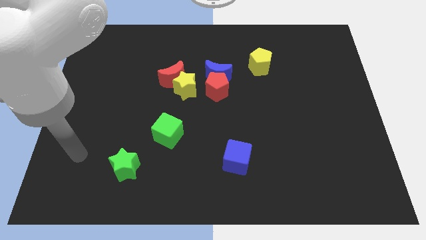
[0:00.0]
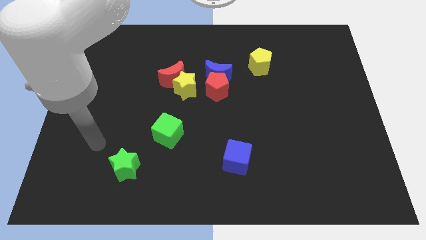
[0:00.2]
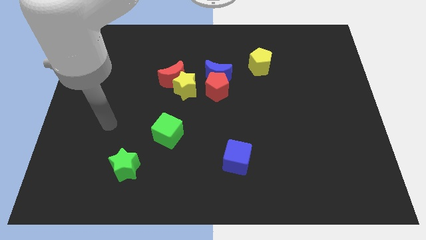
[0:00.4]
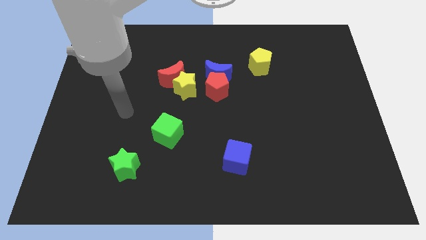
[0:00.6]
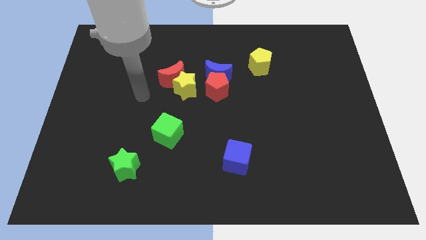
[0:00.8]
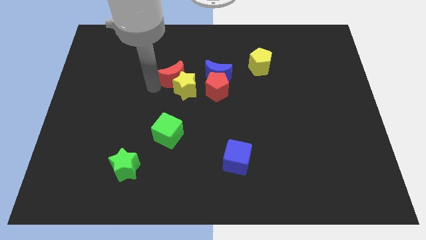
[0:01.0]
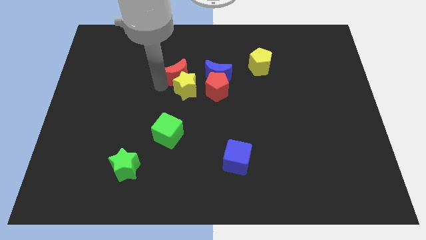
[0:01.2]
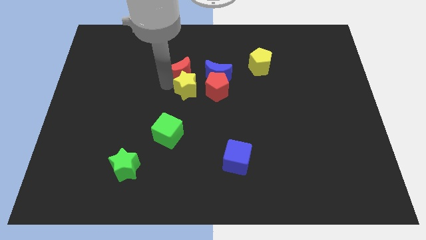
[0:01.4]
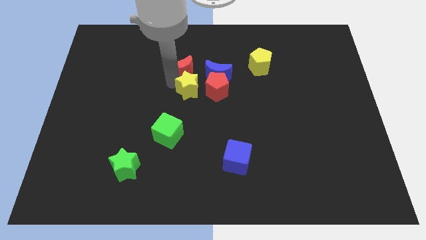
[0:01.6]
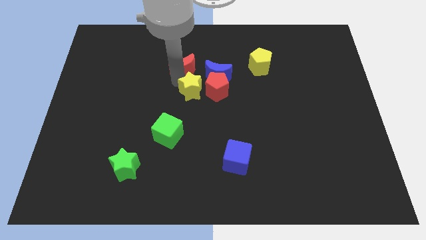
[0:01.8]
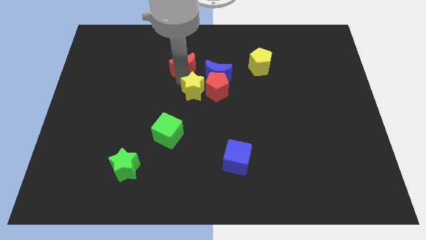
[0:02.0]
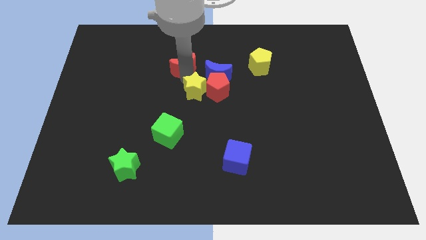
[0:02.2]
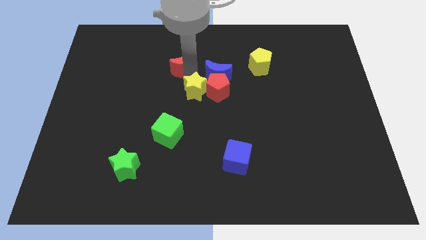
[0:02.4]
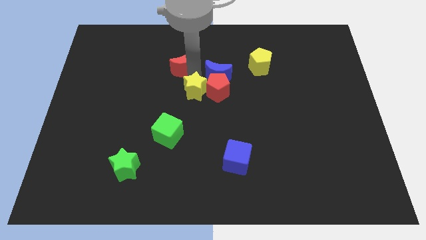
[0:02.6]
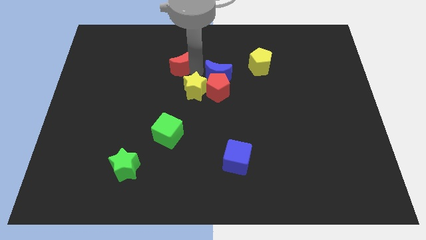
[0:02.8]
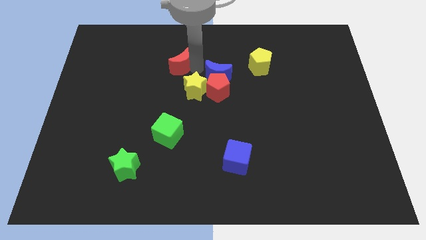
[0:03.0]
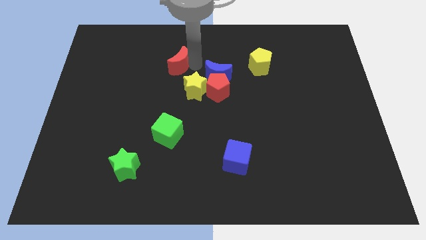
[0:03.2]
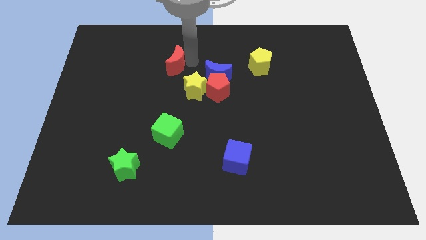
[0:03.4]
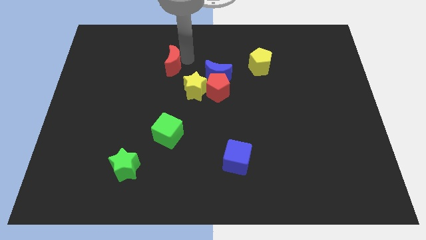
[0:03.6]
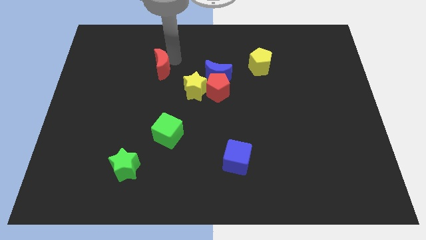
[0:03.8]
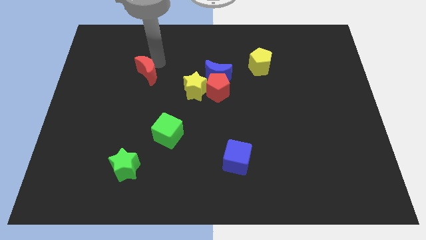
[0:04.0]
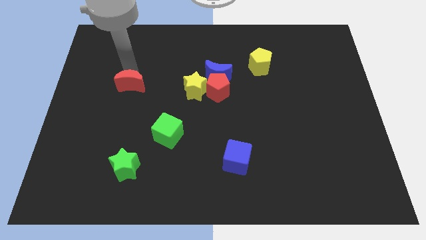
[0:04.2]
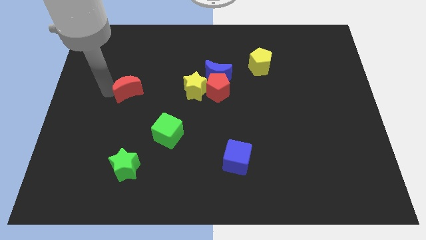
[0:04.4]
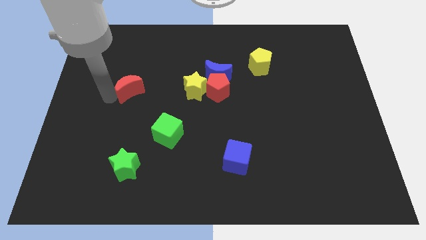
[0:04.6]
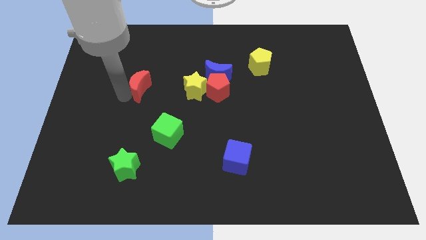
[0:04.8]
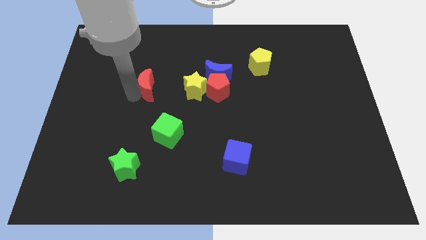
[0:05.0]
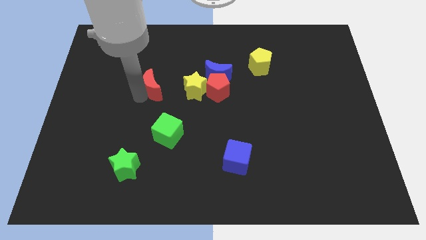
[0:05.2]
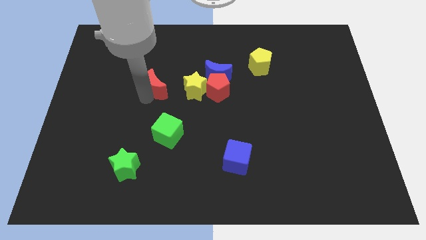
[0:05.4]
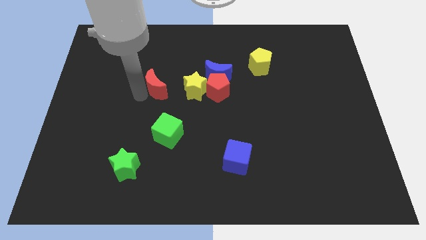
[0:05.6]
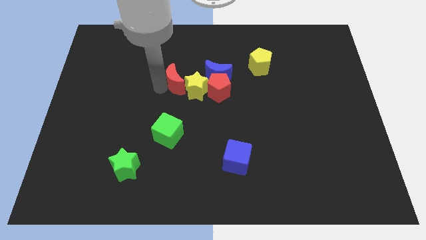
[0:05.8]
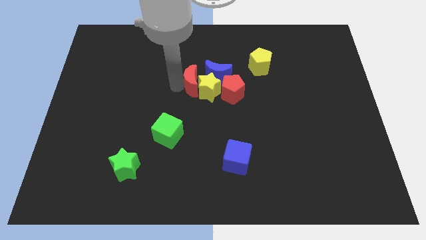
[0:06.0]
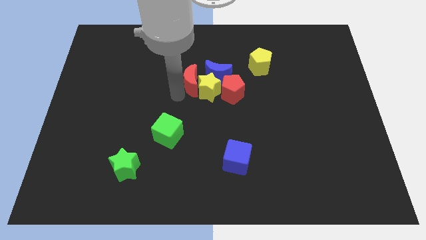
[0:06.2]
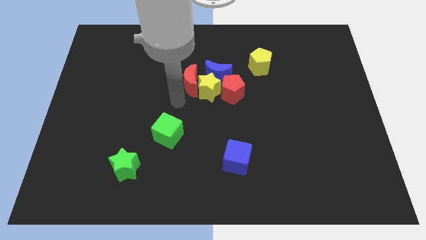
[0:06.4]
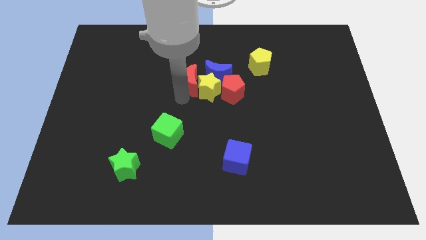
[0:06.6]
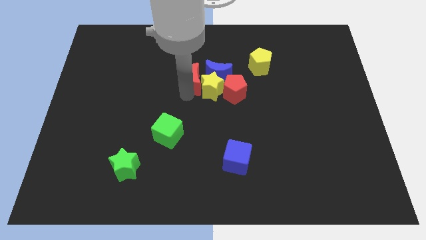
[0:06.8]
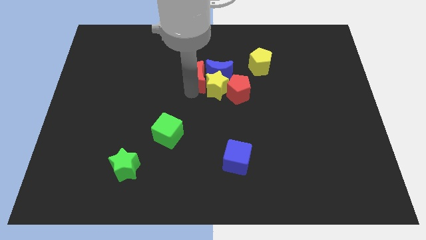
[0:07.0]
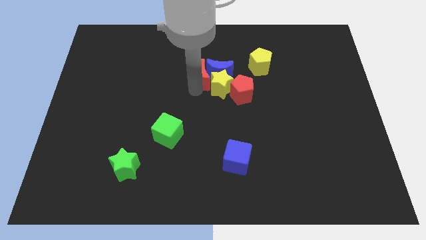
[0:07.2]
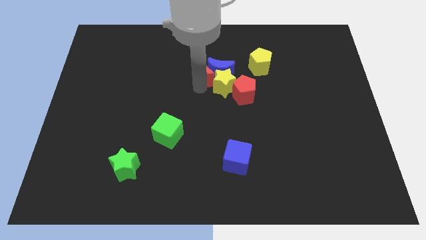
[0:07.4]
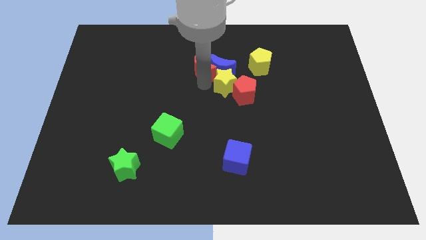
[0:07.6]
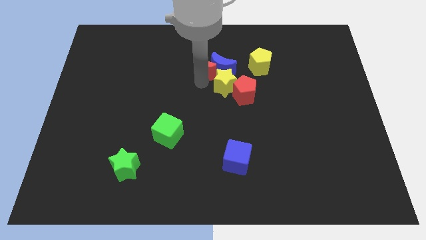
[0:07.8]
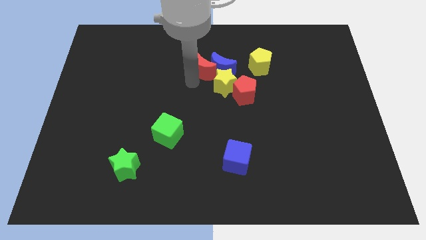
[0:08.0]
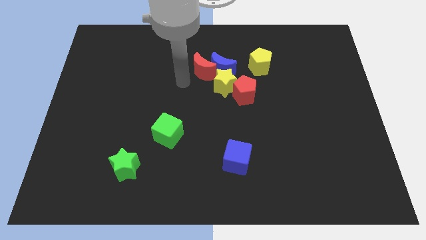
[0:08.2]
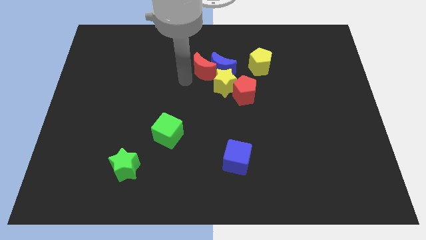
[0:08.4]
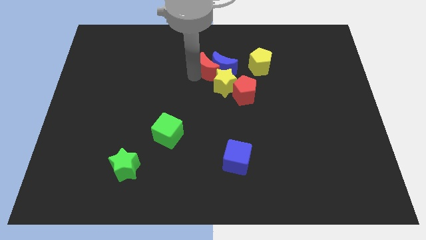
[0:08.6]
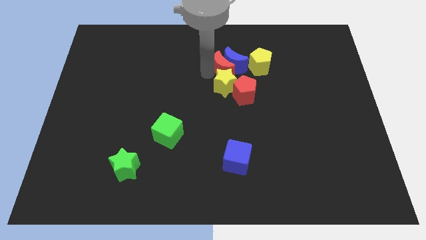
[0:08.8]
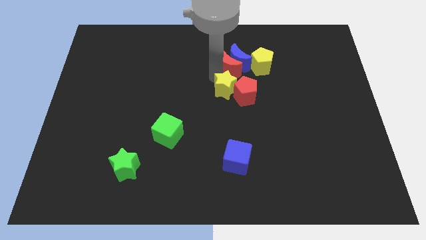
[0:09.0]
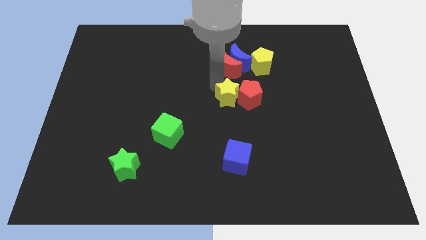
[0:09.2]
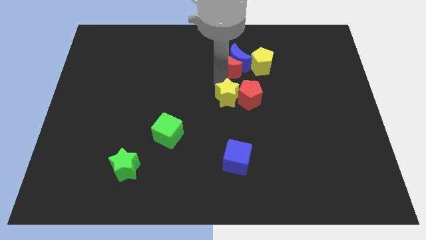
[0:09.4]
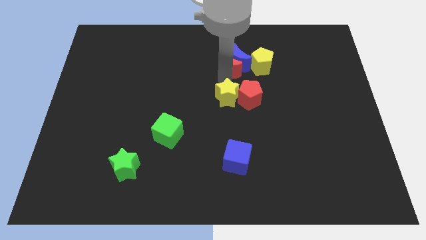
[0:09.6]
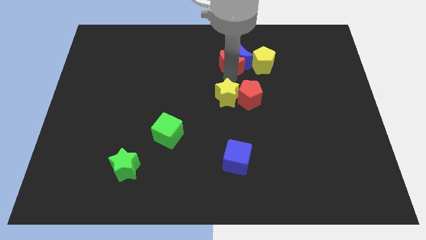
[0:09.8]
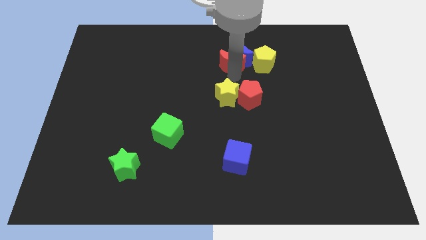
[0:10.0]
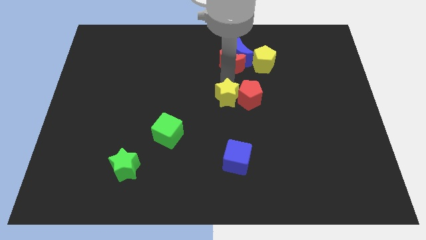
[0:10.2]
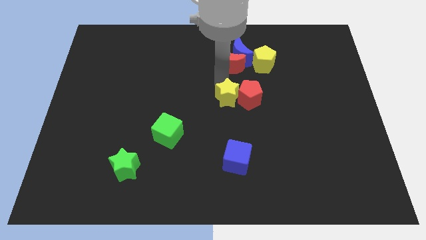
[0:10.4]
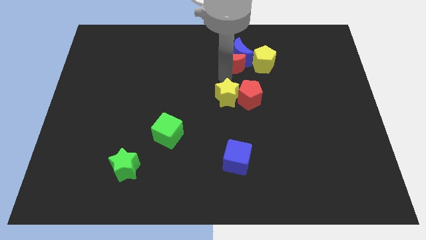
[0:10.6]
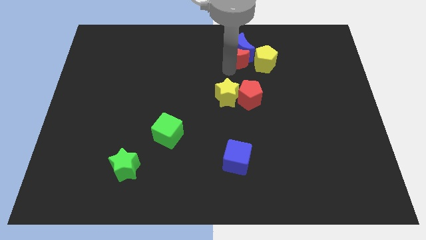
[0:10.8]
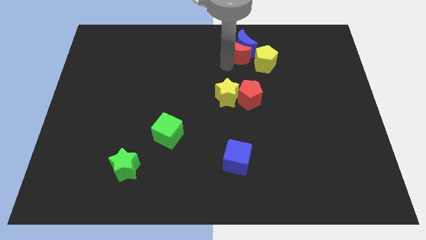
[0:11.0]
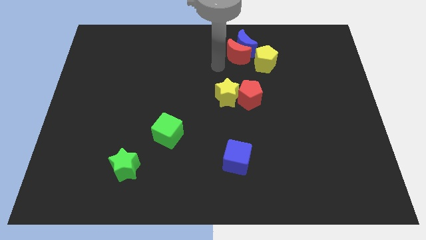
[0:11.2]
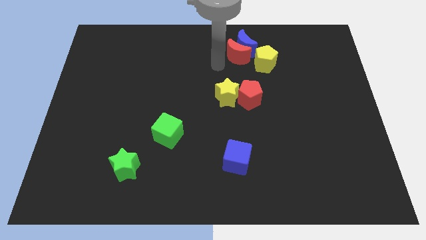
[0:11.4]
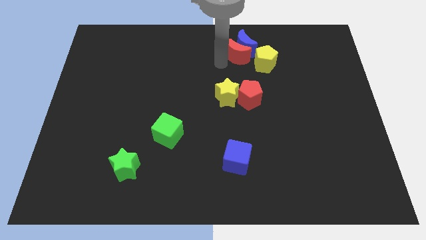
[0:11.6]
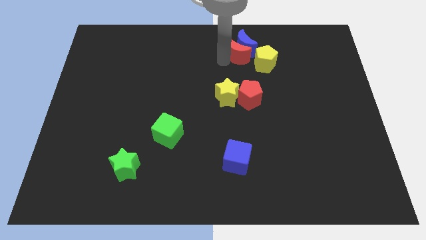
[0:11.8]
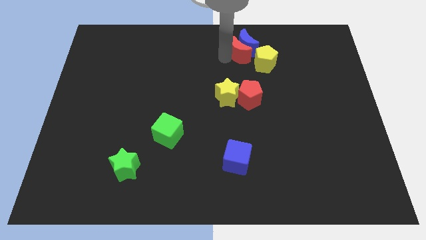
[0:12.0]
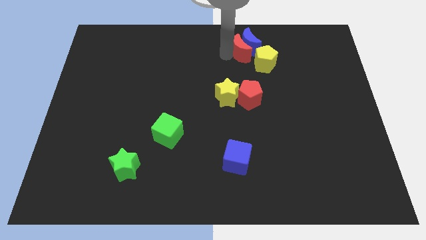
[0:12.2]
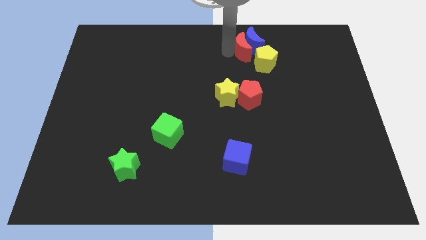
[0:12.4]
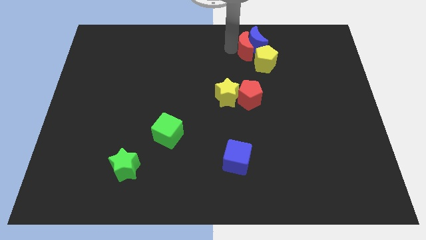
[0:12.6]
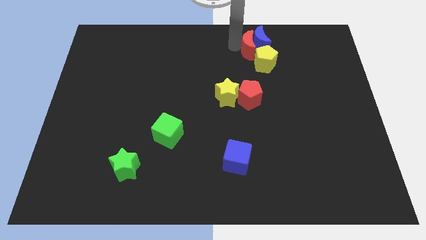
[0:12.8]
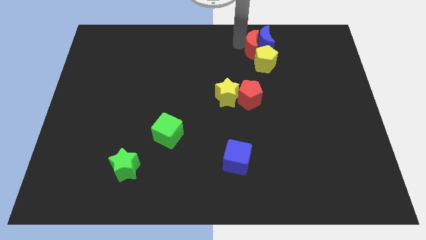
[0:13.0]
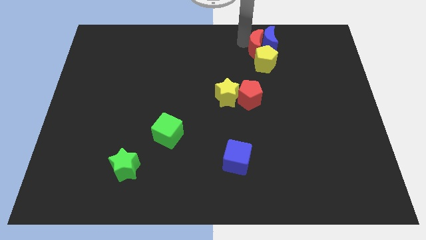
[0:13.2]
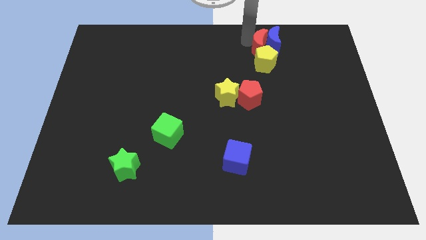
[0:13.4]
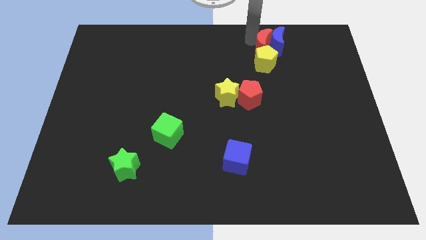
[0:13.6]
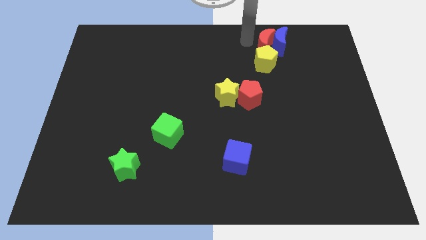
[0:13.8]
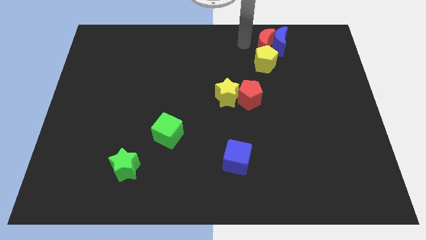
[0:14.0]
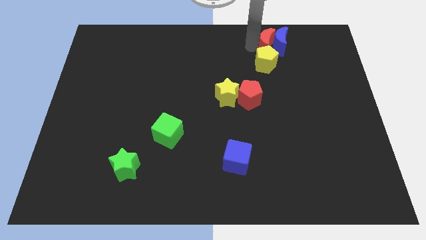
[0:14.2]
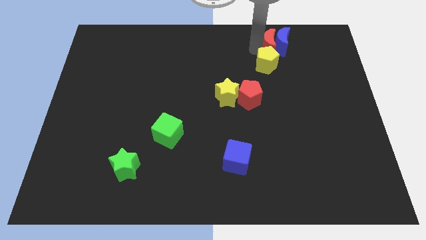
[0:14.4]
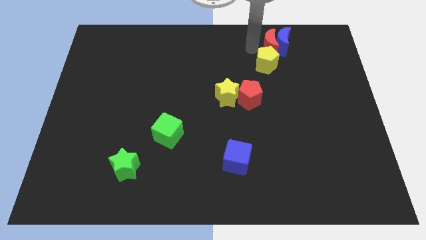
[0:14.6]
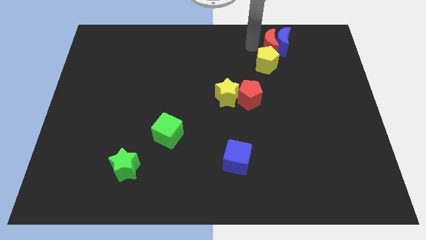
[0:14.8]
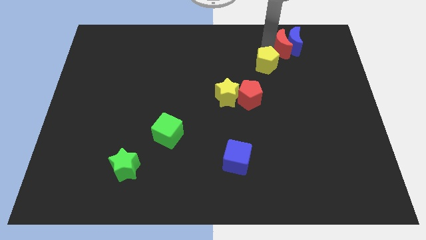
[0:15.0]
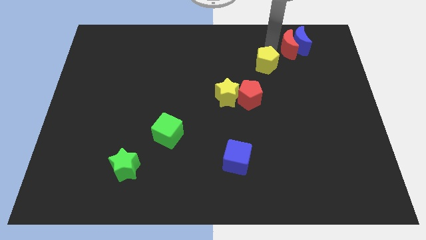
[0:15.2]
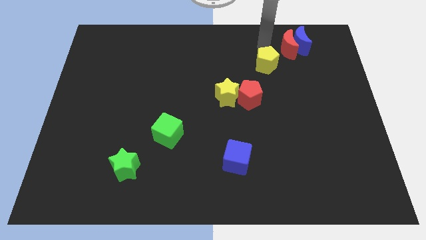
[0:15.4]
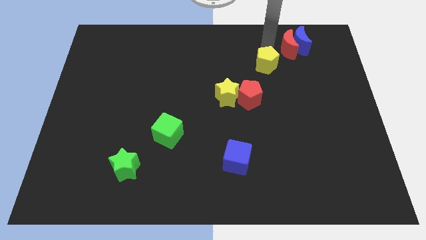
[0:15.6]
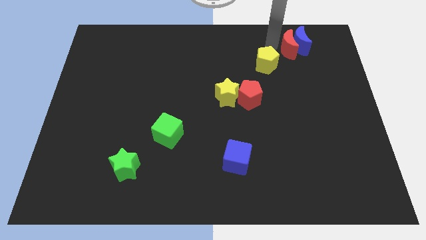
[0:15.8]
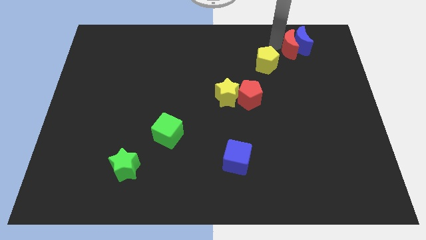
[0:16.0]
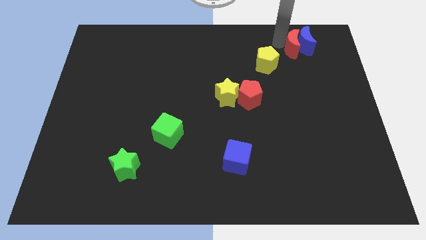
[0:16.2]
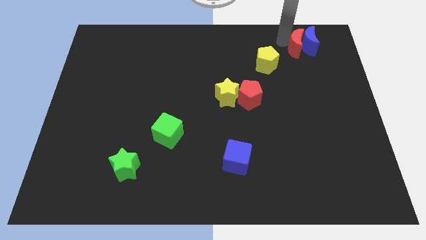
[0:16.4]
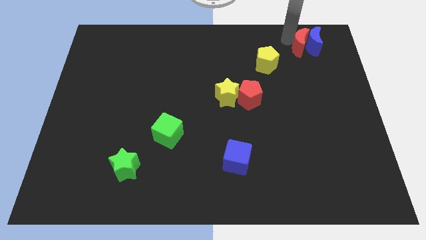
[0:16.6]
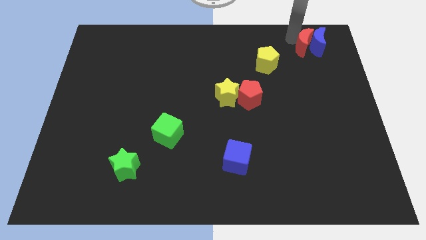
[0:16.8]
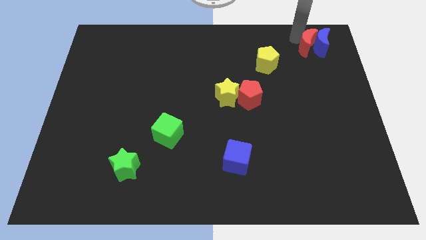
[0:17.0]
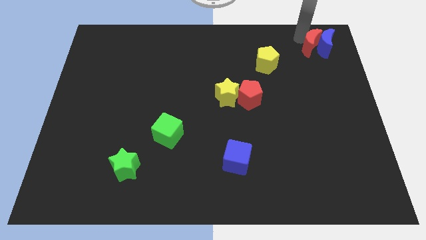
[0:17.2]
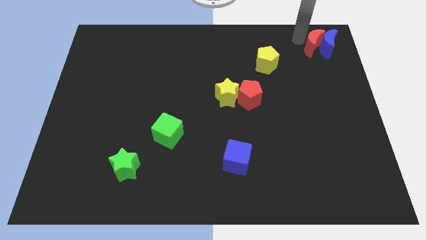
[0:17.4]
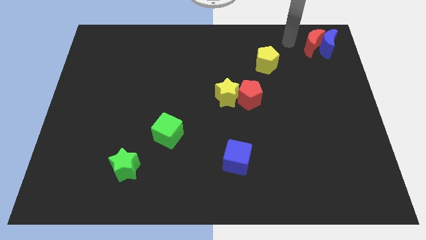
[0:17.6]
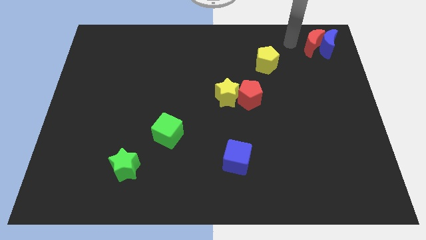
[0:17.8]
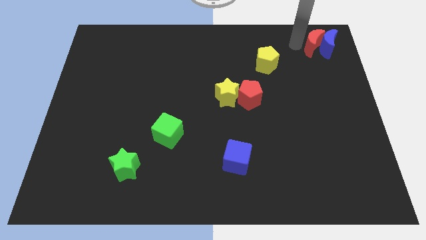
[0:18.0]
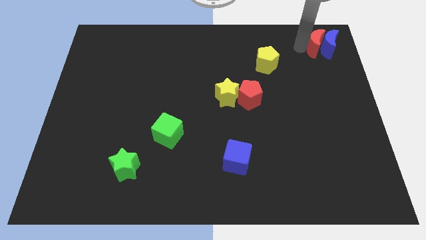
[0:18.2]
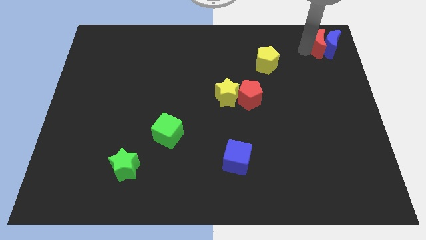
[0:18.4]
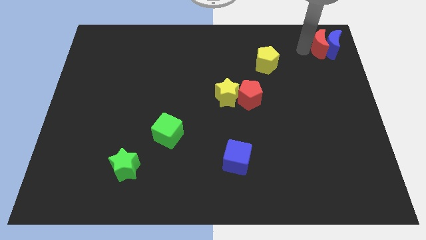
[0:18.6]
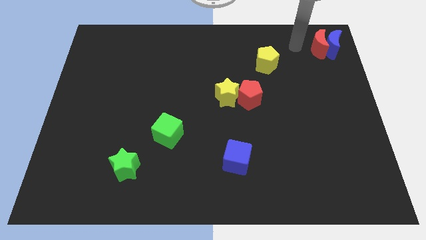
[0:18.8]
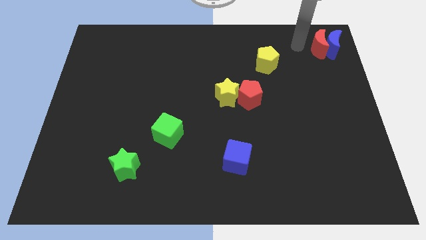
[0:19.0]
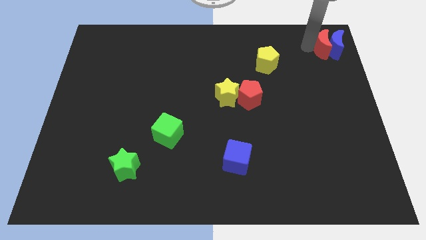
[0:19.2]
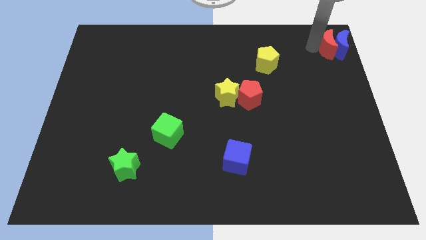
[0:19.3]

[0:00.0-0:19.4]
move the red moon to the top right
